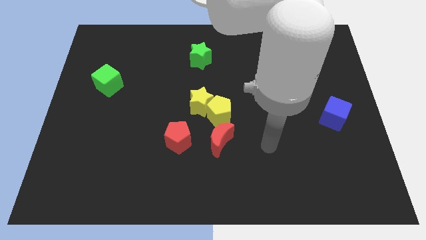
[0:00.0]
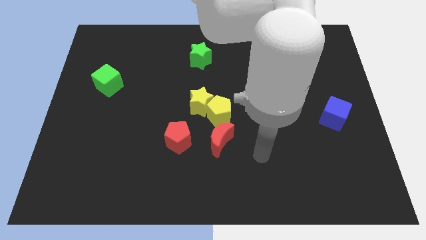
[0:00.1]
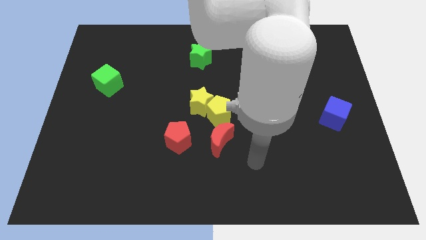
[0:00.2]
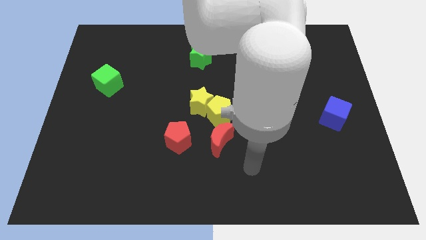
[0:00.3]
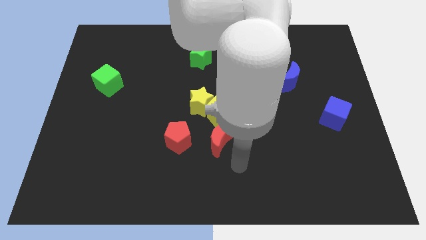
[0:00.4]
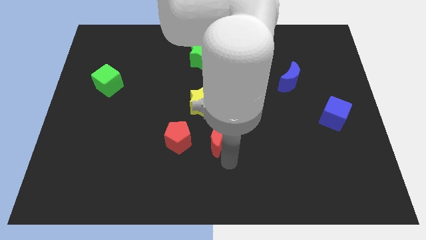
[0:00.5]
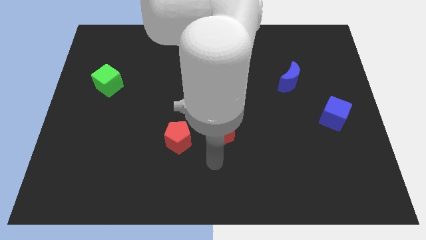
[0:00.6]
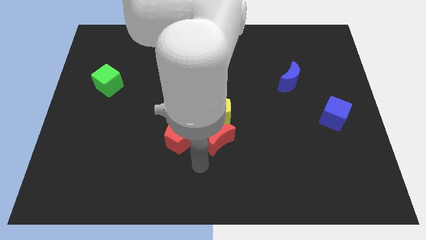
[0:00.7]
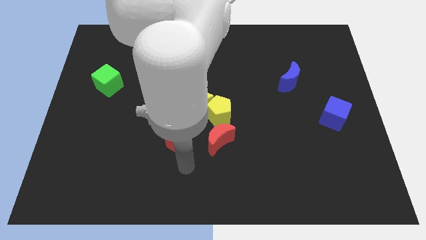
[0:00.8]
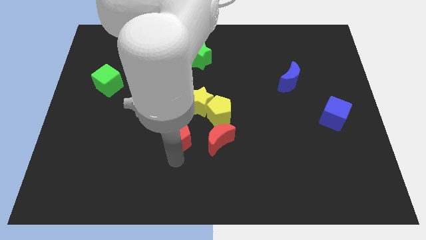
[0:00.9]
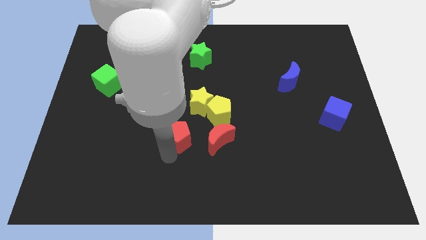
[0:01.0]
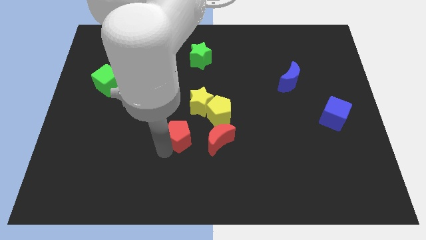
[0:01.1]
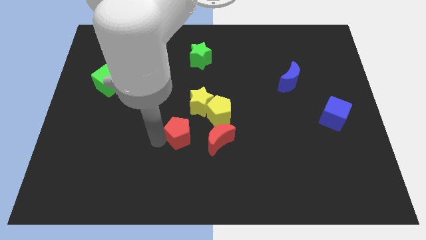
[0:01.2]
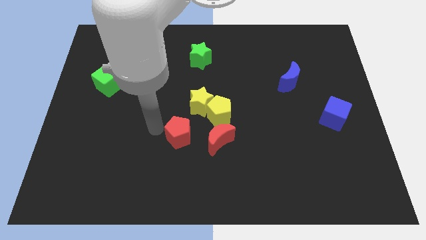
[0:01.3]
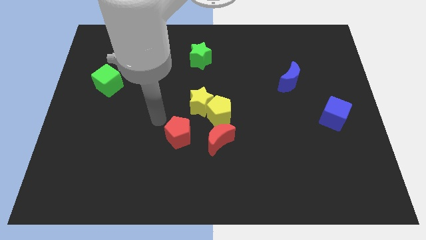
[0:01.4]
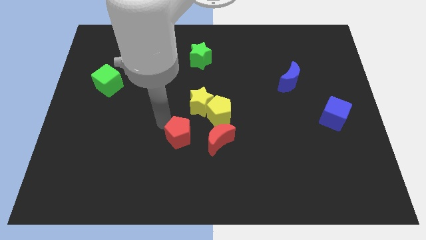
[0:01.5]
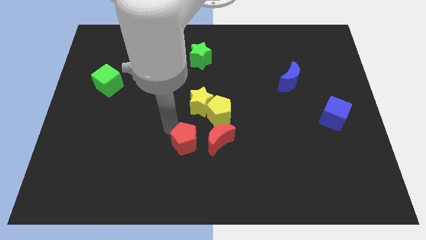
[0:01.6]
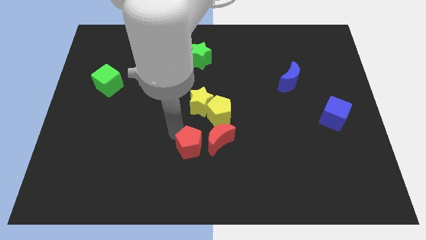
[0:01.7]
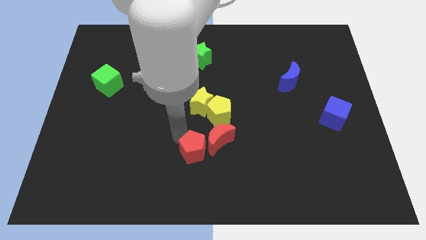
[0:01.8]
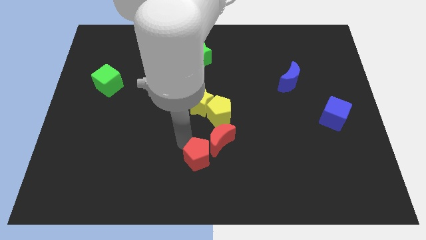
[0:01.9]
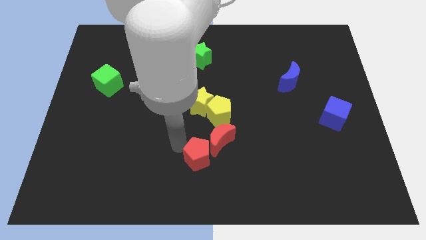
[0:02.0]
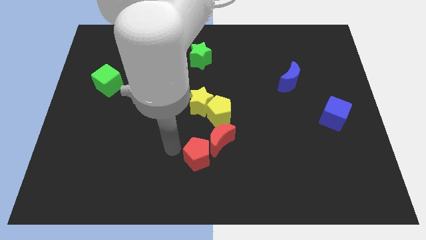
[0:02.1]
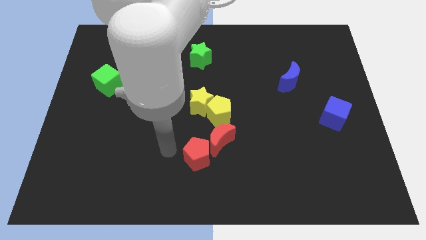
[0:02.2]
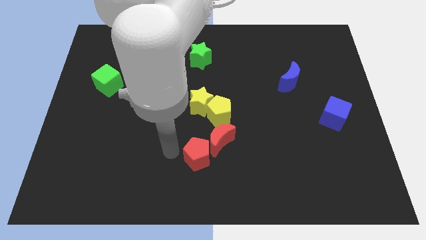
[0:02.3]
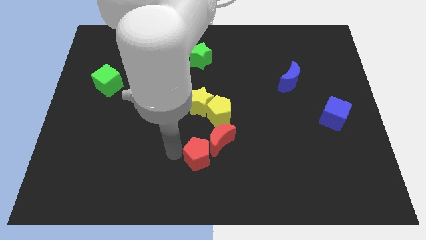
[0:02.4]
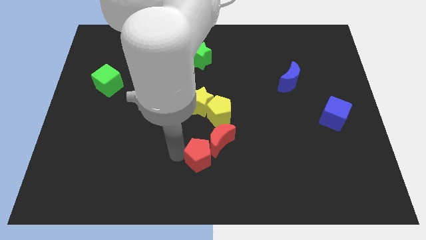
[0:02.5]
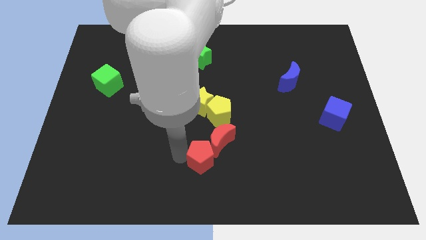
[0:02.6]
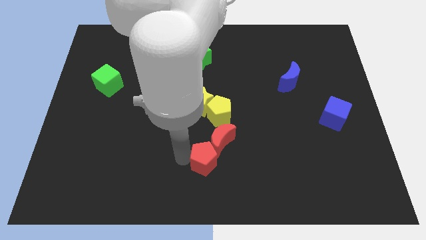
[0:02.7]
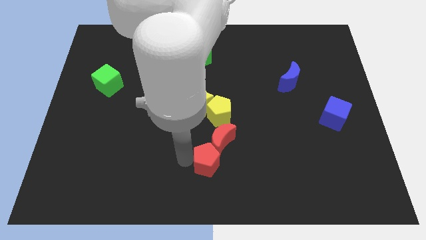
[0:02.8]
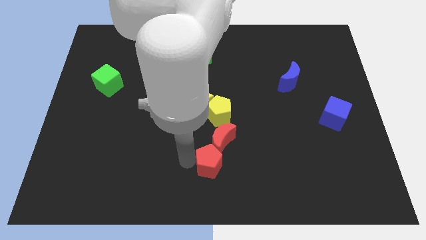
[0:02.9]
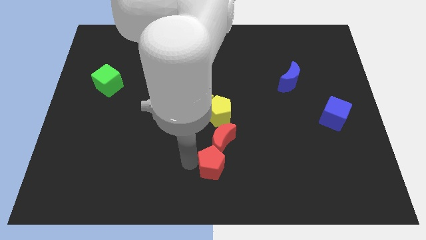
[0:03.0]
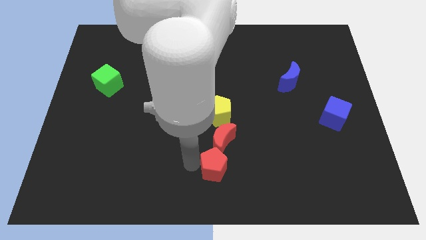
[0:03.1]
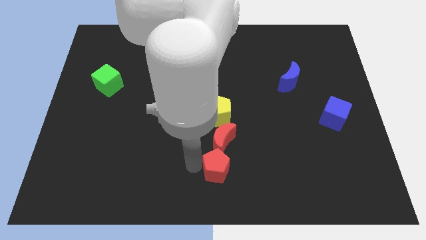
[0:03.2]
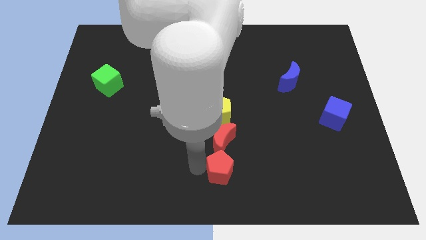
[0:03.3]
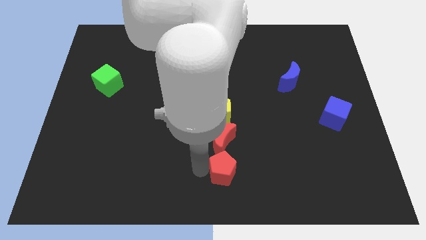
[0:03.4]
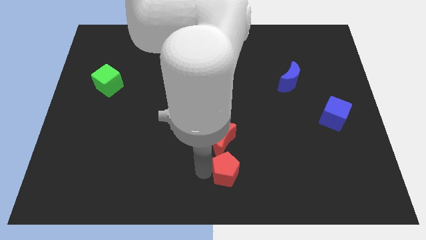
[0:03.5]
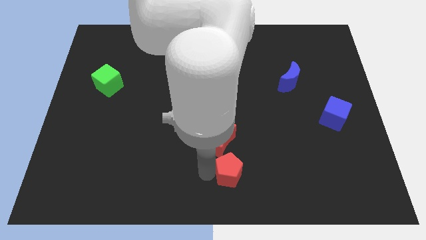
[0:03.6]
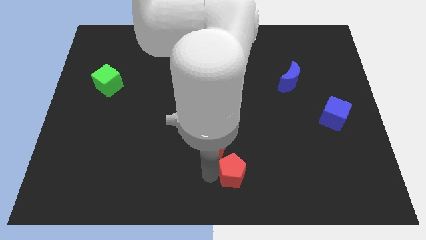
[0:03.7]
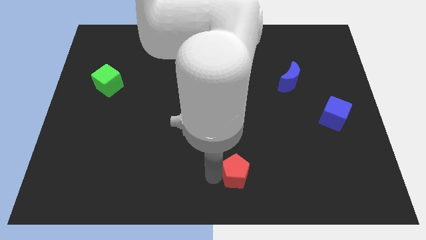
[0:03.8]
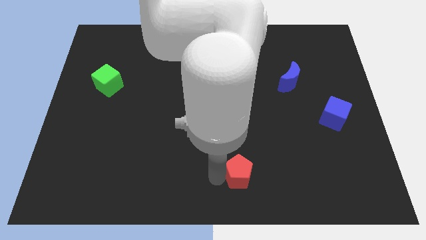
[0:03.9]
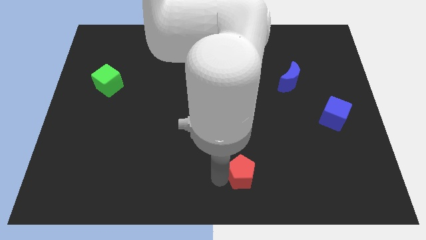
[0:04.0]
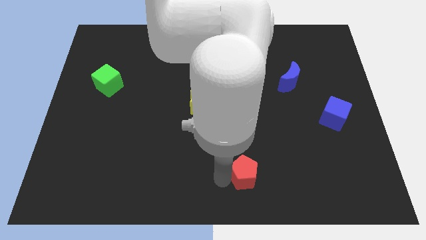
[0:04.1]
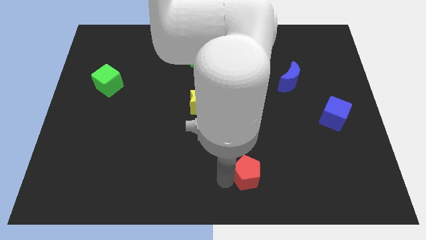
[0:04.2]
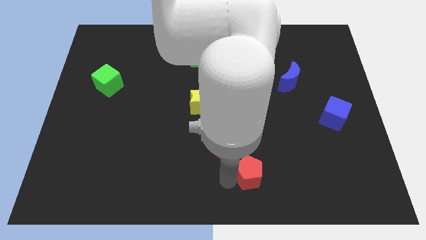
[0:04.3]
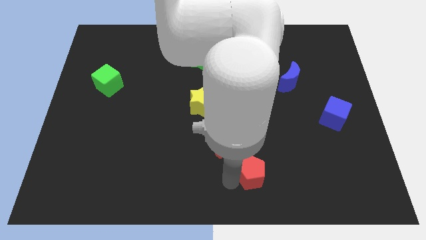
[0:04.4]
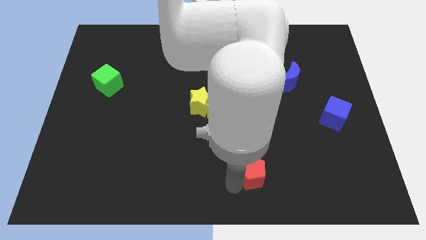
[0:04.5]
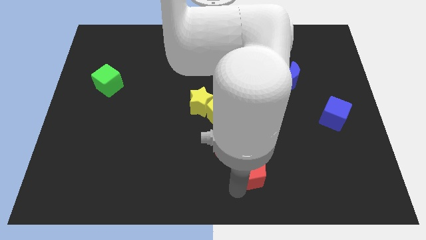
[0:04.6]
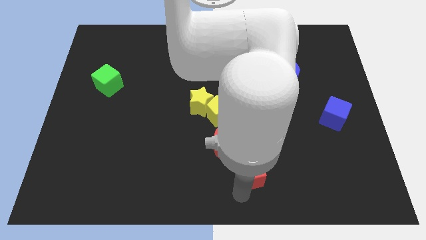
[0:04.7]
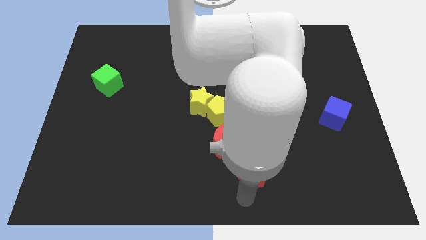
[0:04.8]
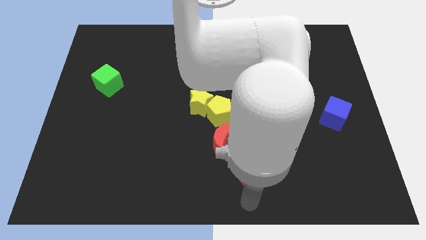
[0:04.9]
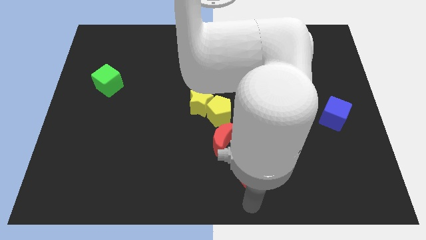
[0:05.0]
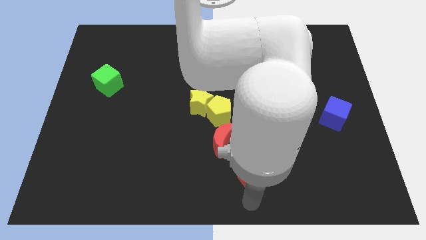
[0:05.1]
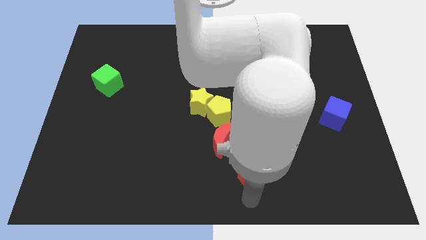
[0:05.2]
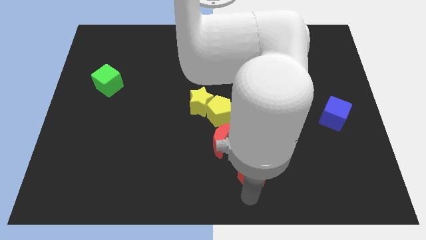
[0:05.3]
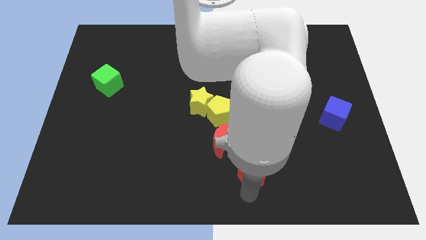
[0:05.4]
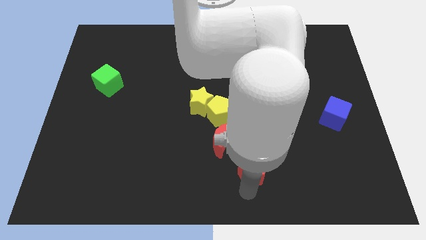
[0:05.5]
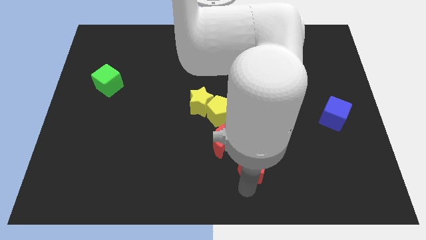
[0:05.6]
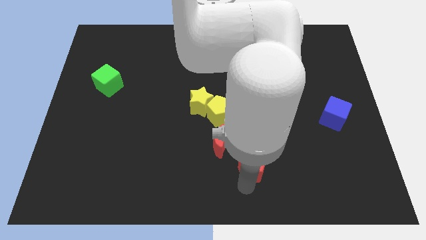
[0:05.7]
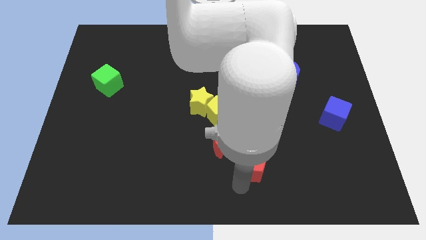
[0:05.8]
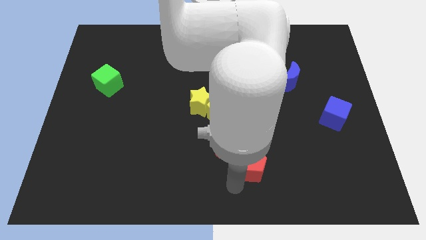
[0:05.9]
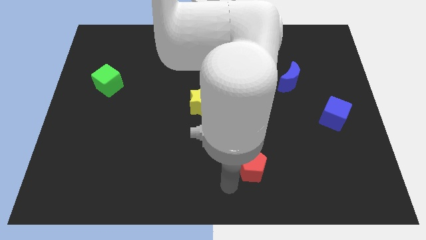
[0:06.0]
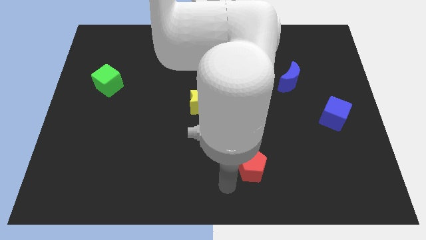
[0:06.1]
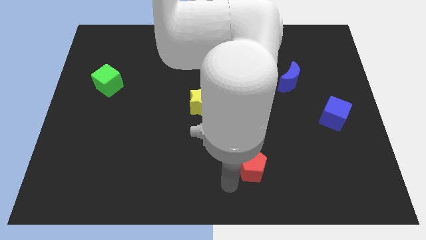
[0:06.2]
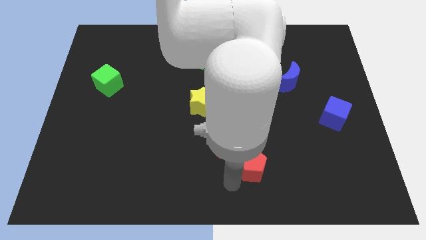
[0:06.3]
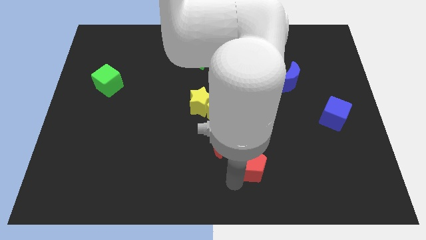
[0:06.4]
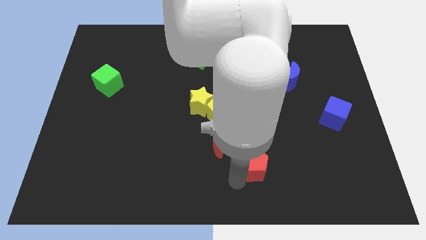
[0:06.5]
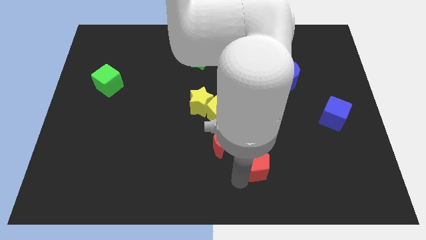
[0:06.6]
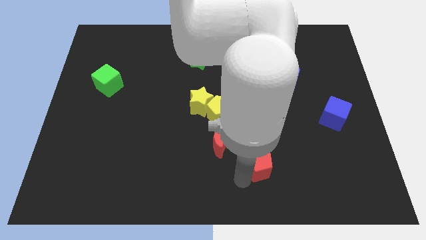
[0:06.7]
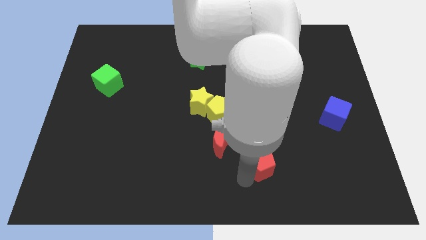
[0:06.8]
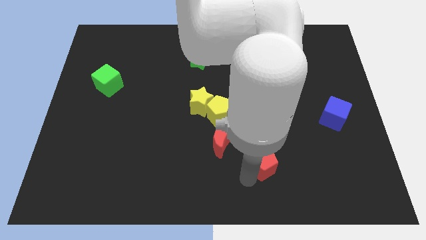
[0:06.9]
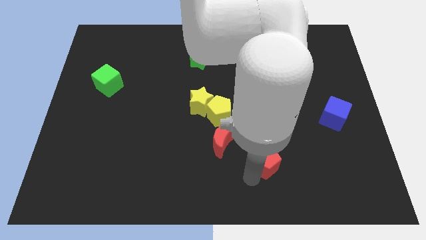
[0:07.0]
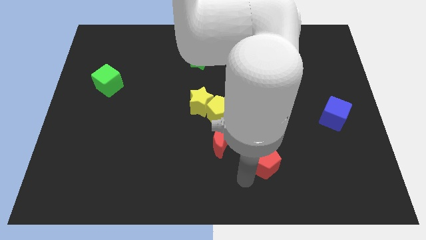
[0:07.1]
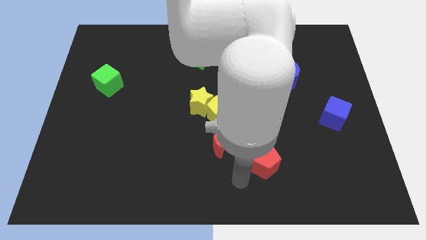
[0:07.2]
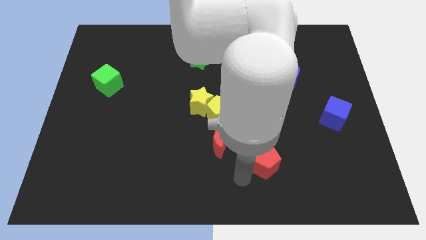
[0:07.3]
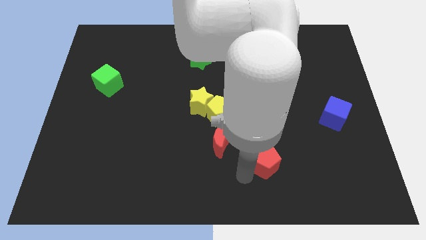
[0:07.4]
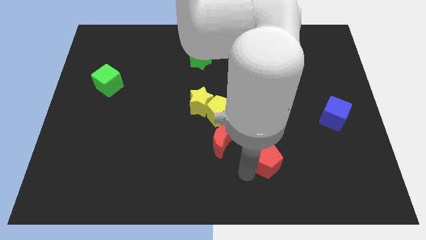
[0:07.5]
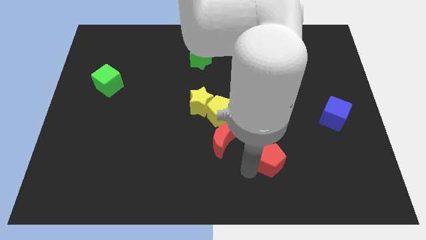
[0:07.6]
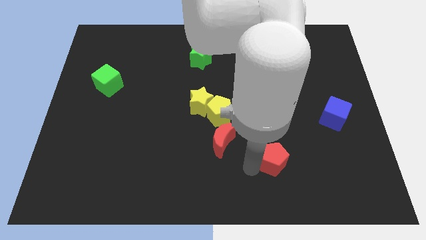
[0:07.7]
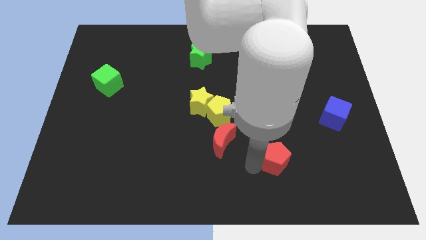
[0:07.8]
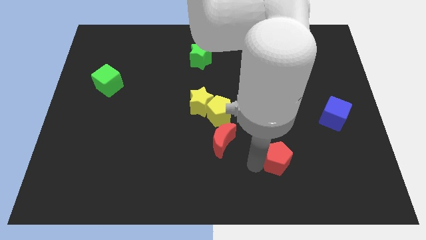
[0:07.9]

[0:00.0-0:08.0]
push the red pentagon right
